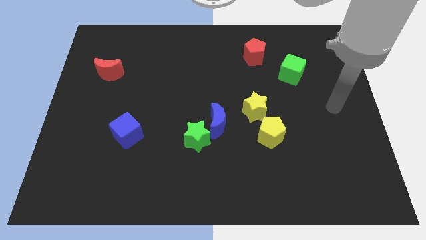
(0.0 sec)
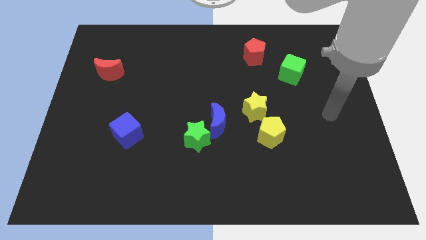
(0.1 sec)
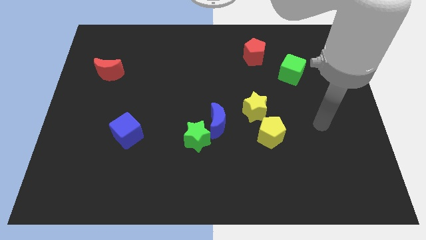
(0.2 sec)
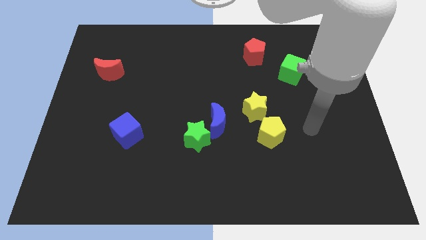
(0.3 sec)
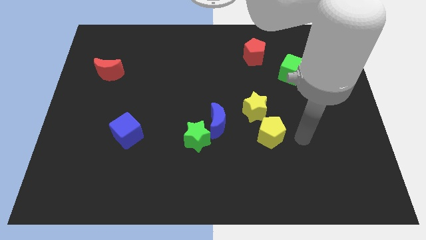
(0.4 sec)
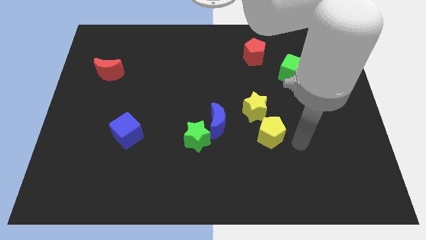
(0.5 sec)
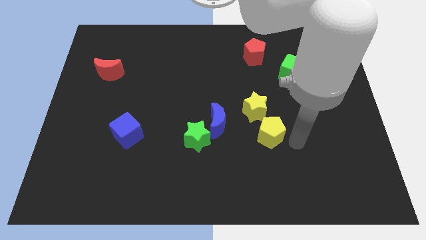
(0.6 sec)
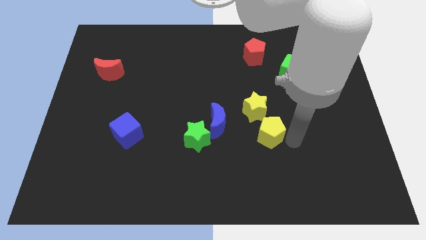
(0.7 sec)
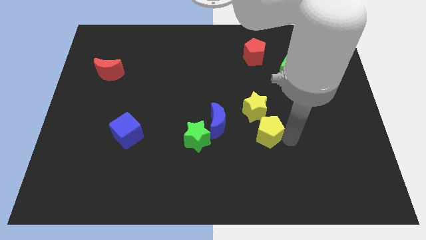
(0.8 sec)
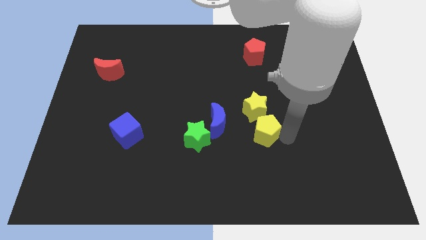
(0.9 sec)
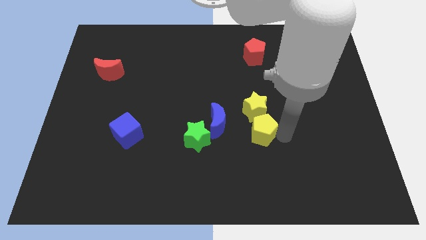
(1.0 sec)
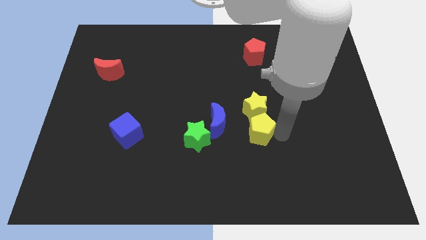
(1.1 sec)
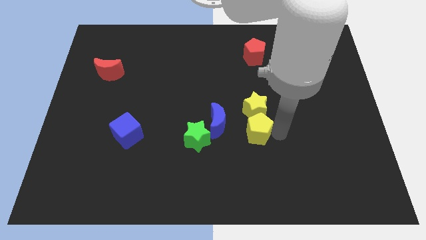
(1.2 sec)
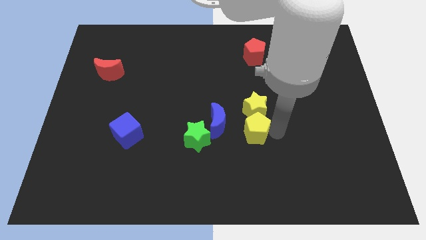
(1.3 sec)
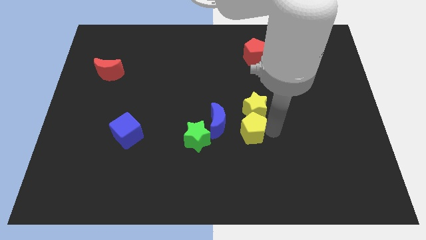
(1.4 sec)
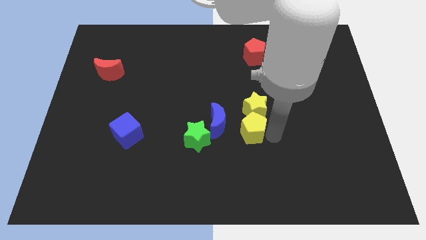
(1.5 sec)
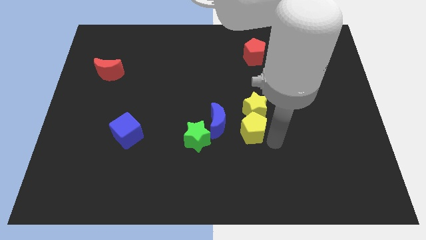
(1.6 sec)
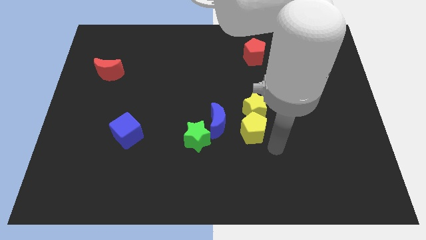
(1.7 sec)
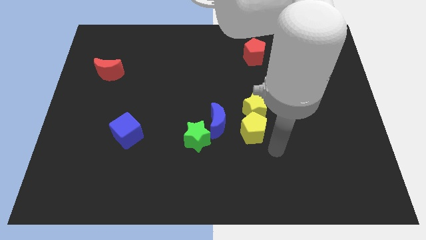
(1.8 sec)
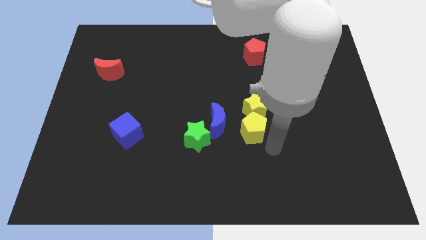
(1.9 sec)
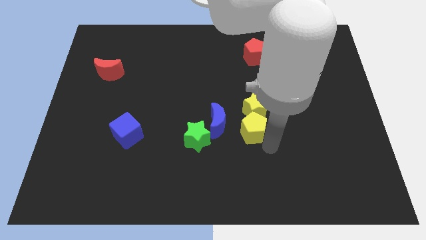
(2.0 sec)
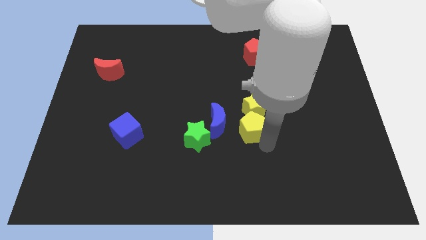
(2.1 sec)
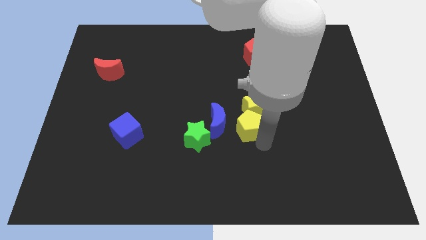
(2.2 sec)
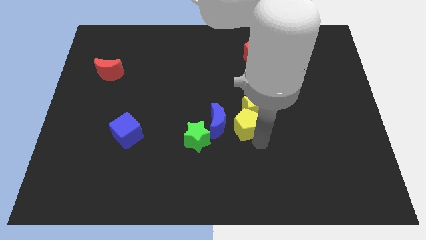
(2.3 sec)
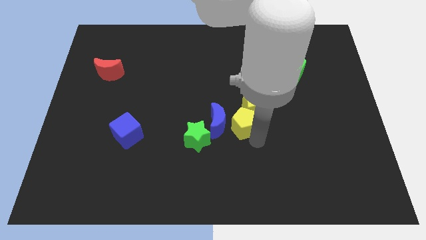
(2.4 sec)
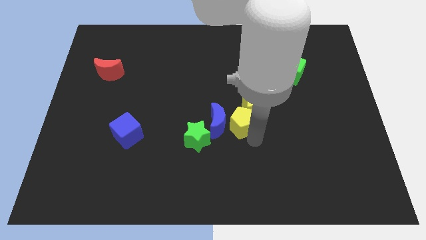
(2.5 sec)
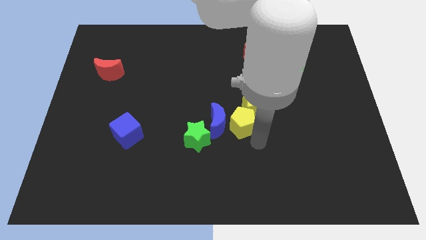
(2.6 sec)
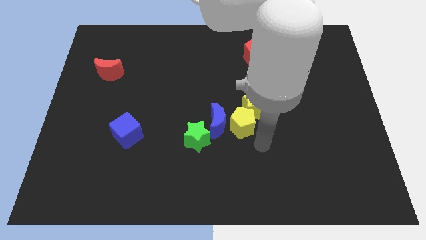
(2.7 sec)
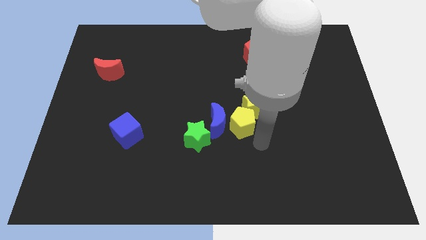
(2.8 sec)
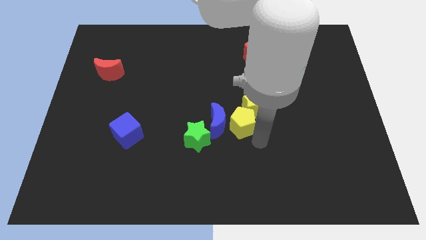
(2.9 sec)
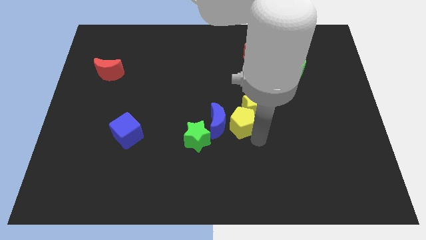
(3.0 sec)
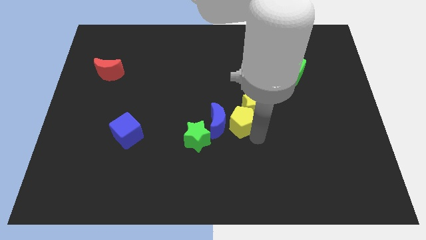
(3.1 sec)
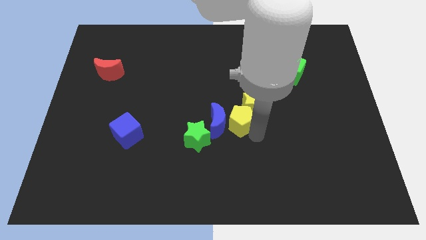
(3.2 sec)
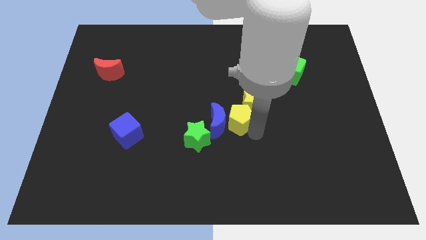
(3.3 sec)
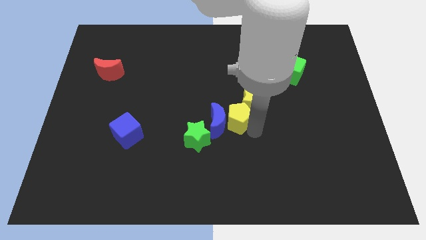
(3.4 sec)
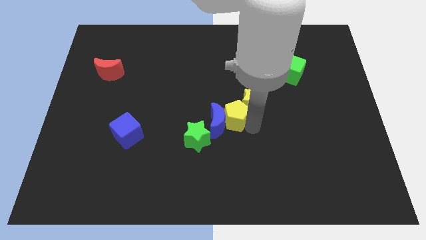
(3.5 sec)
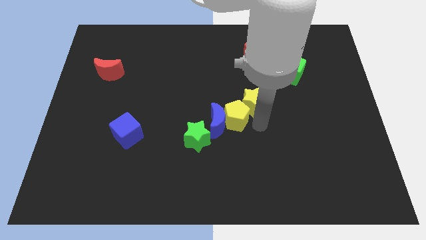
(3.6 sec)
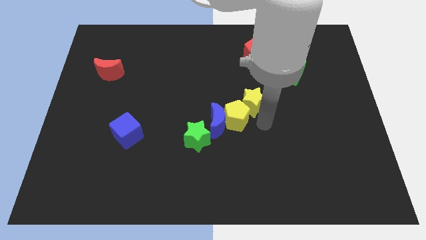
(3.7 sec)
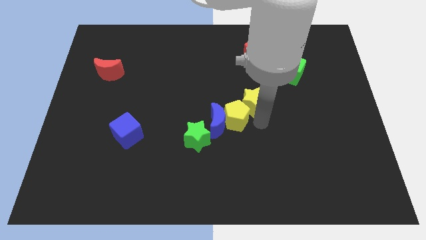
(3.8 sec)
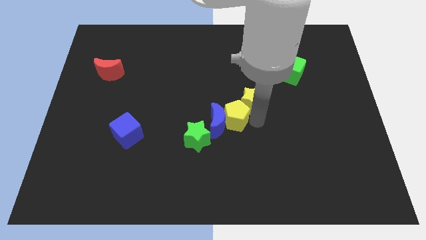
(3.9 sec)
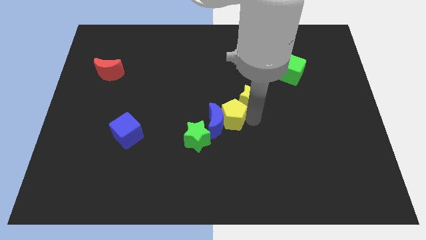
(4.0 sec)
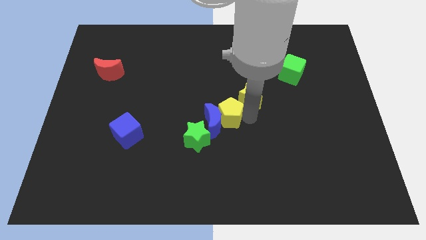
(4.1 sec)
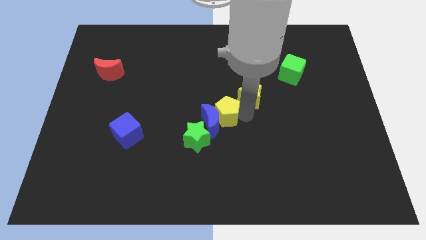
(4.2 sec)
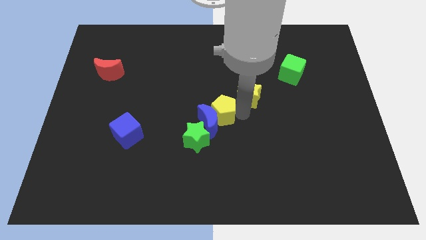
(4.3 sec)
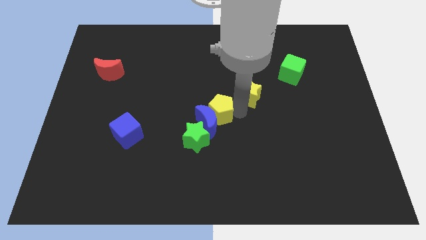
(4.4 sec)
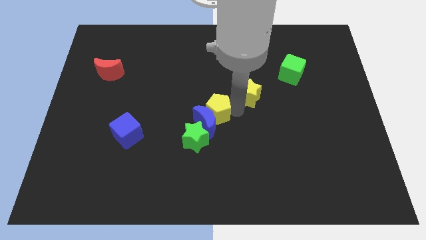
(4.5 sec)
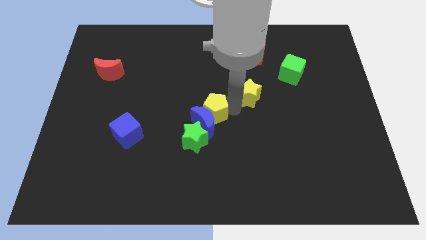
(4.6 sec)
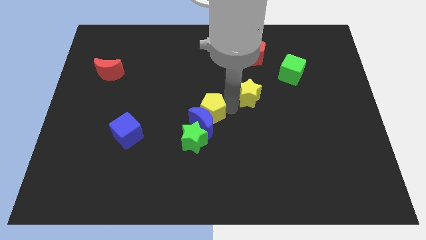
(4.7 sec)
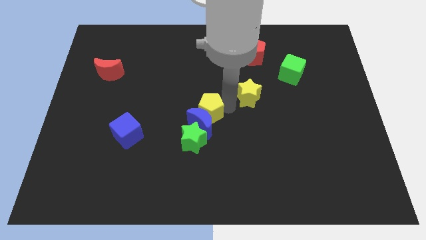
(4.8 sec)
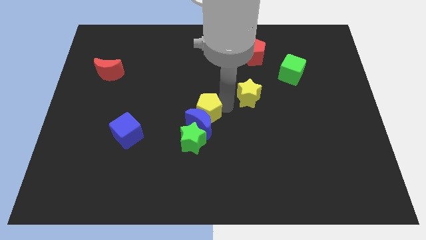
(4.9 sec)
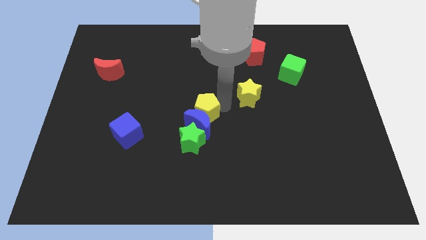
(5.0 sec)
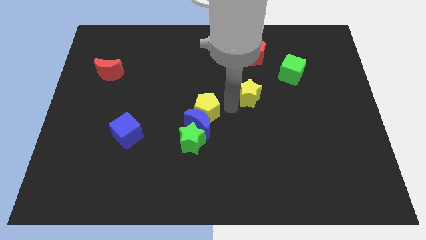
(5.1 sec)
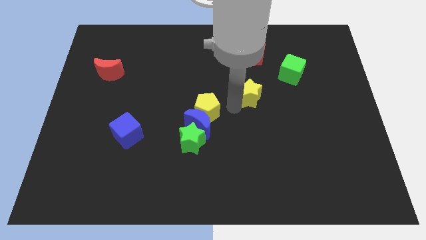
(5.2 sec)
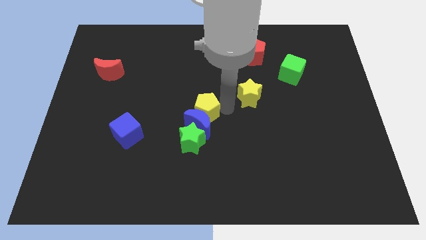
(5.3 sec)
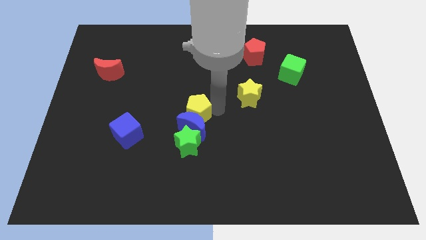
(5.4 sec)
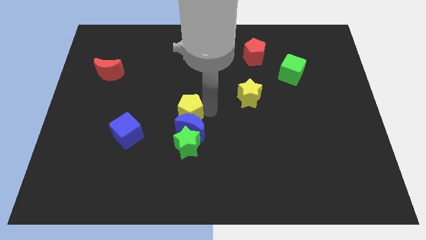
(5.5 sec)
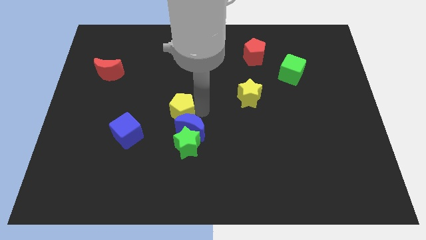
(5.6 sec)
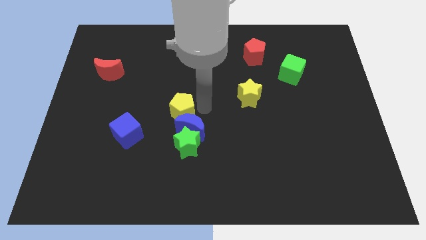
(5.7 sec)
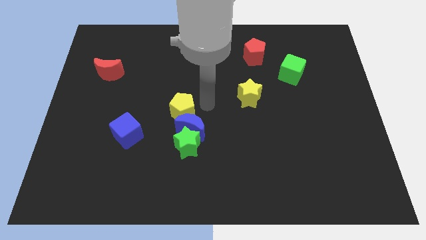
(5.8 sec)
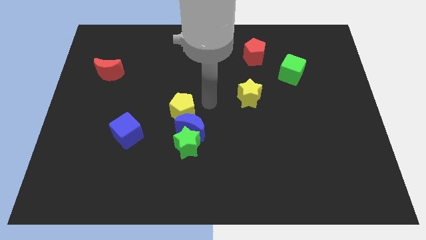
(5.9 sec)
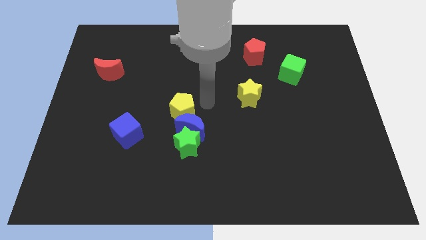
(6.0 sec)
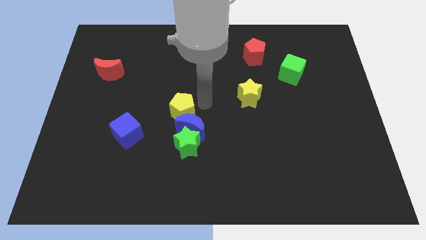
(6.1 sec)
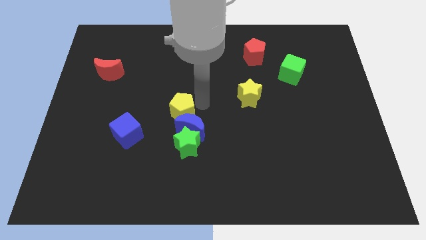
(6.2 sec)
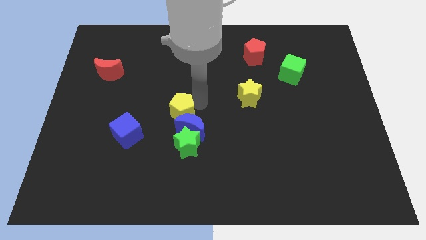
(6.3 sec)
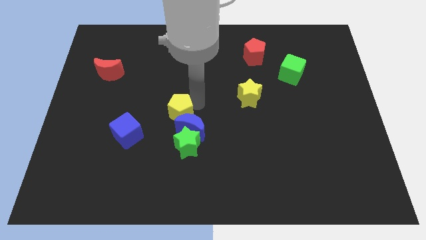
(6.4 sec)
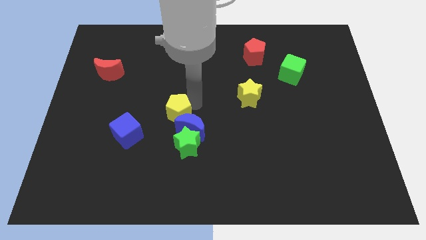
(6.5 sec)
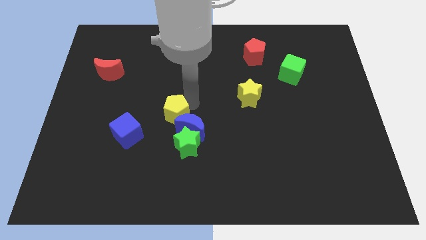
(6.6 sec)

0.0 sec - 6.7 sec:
slide the yellow pentagon to the top right of the blue cube

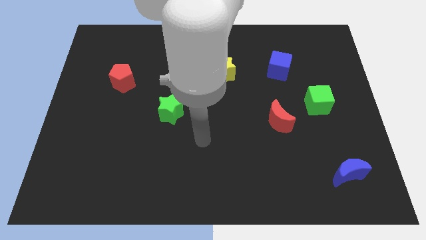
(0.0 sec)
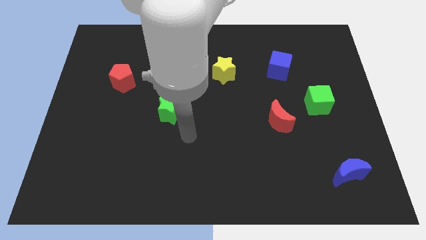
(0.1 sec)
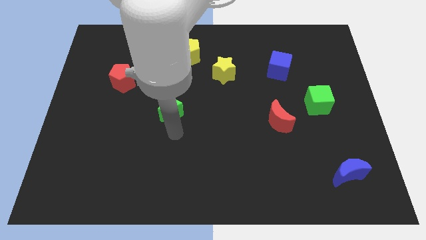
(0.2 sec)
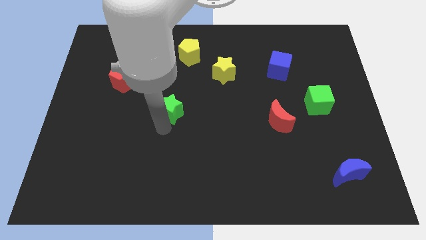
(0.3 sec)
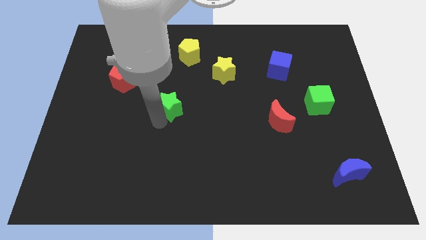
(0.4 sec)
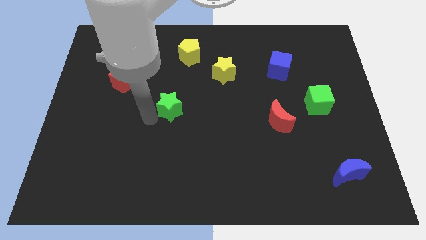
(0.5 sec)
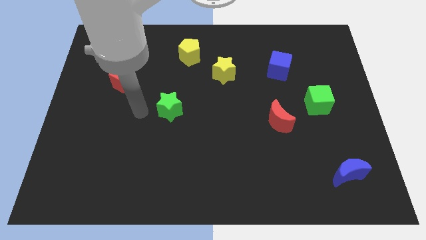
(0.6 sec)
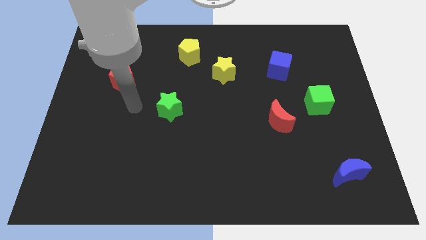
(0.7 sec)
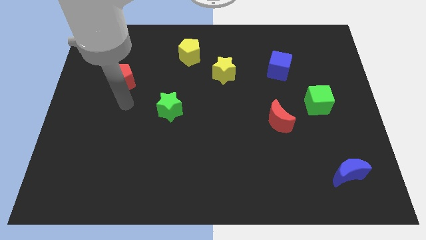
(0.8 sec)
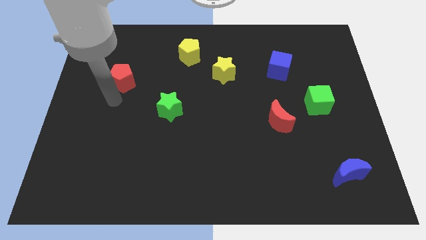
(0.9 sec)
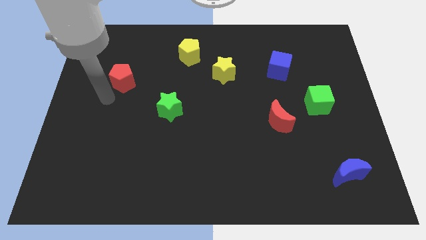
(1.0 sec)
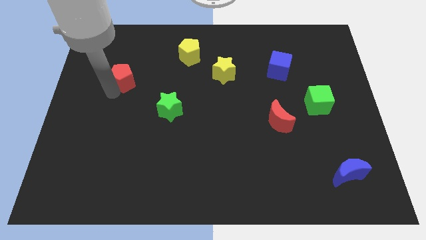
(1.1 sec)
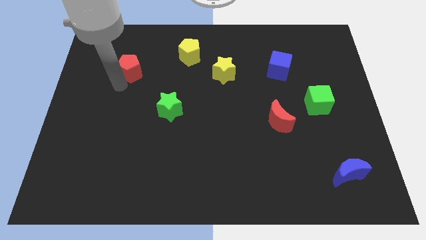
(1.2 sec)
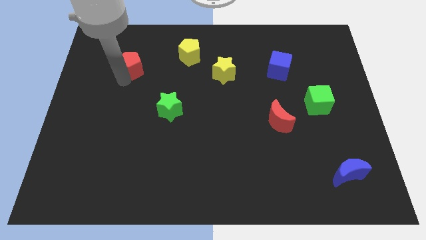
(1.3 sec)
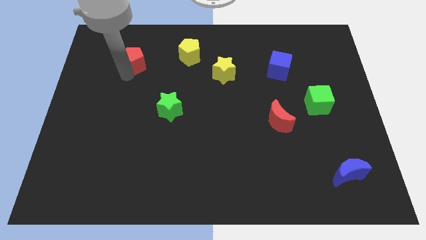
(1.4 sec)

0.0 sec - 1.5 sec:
push the red pentagon to the left of the yellow pentagon
